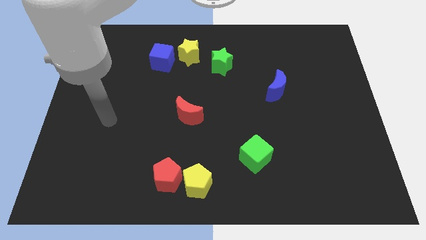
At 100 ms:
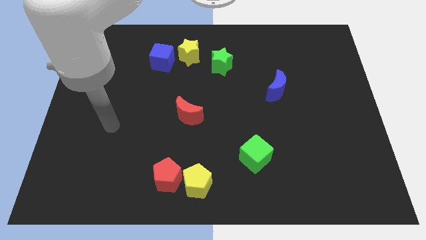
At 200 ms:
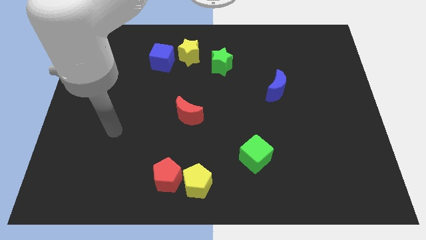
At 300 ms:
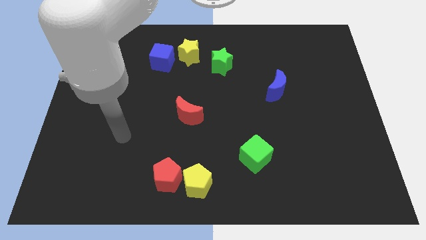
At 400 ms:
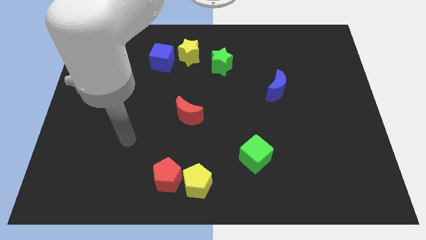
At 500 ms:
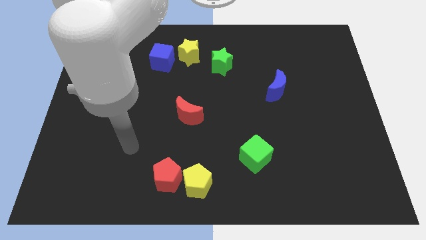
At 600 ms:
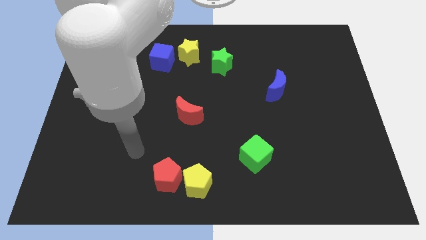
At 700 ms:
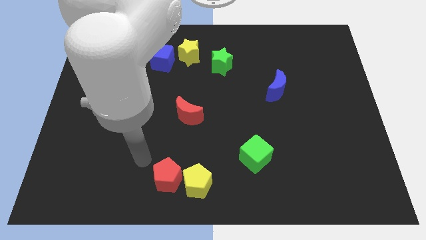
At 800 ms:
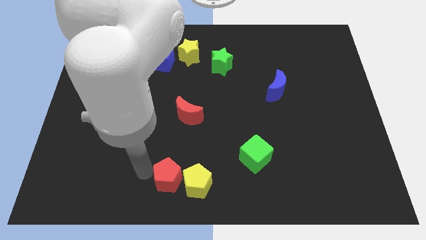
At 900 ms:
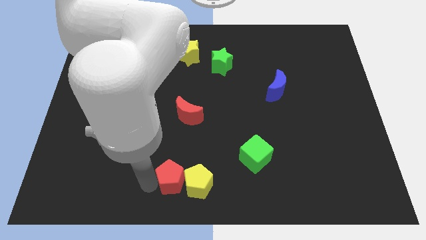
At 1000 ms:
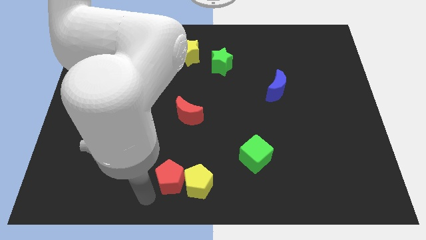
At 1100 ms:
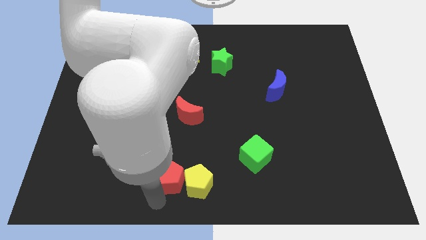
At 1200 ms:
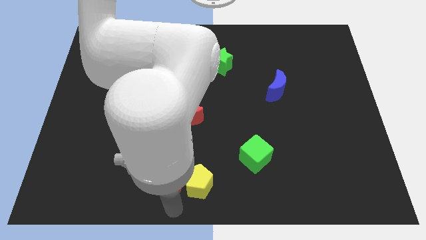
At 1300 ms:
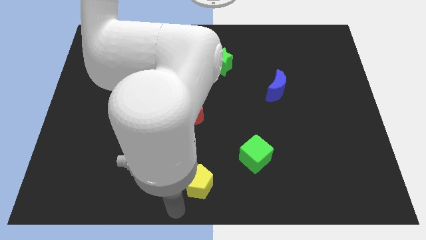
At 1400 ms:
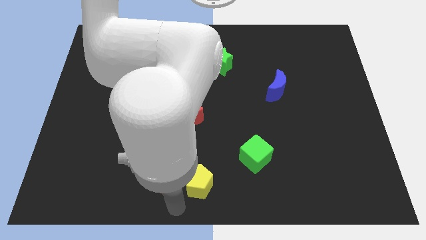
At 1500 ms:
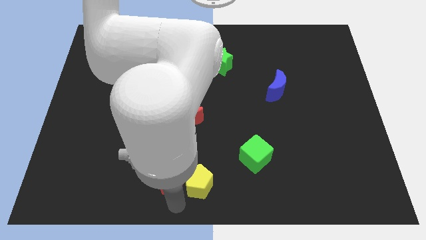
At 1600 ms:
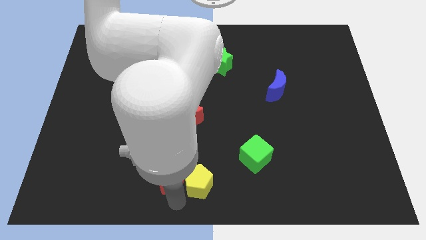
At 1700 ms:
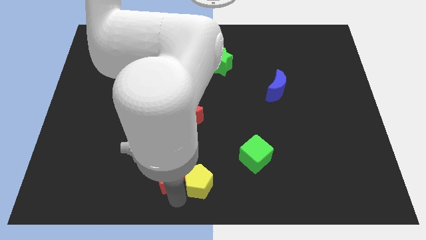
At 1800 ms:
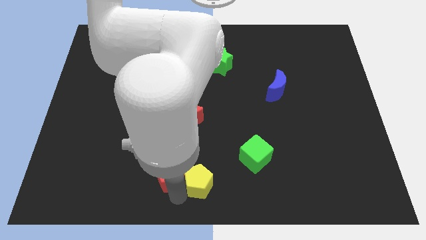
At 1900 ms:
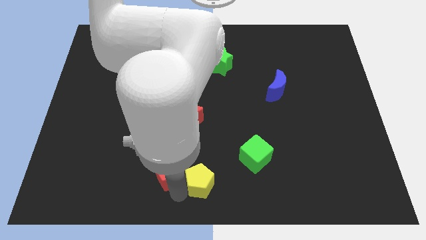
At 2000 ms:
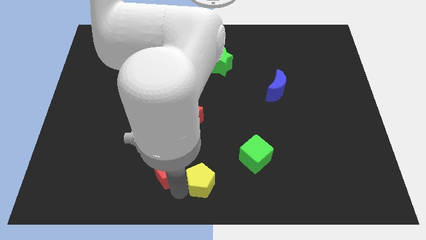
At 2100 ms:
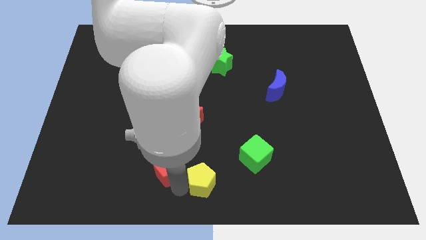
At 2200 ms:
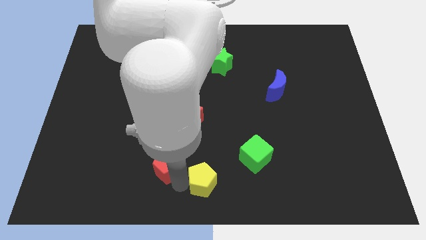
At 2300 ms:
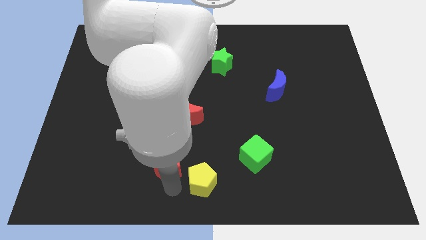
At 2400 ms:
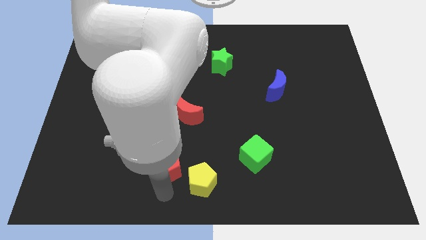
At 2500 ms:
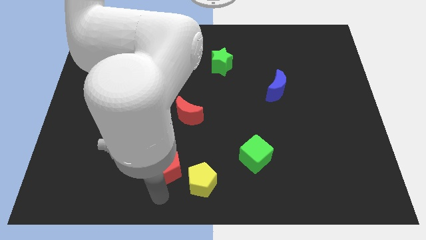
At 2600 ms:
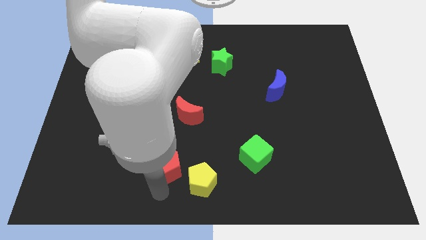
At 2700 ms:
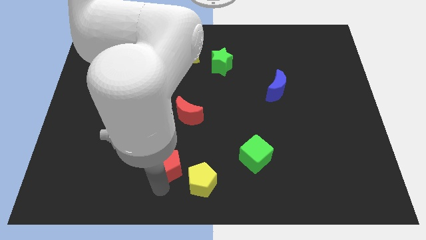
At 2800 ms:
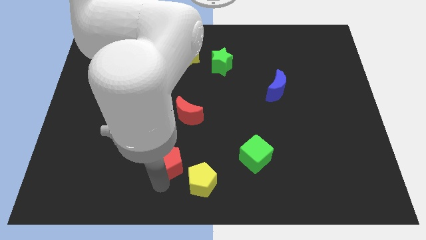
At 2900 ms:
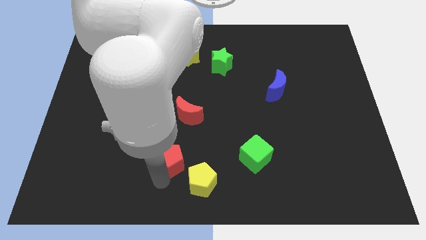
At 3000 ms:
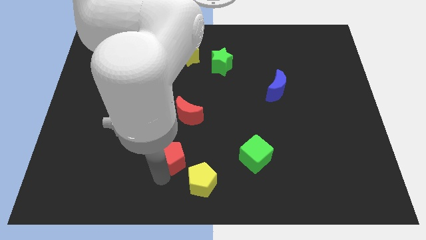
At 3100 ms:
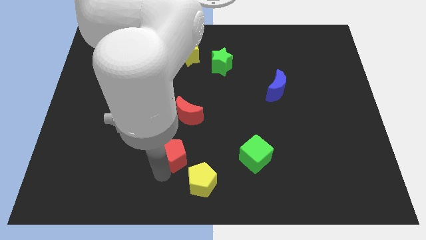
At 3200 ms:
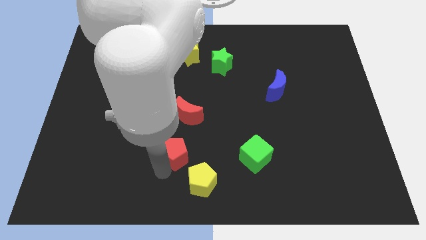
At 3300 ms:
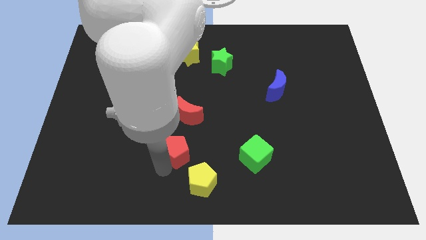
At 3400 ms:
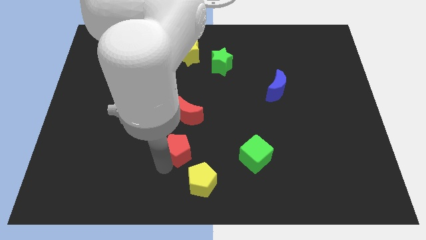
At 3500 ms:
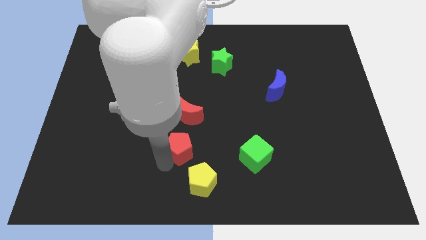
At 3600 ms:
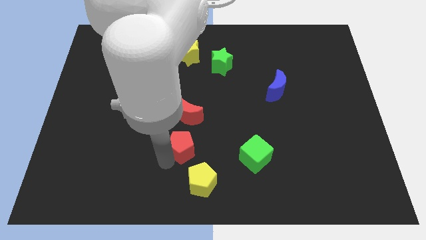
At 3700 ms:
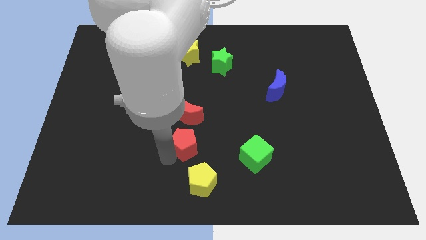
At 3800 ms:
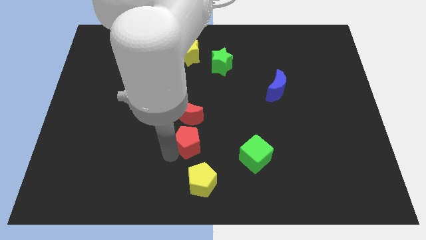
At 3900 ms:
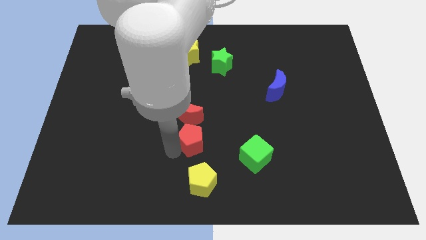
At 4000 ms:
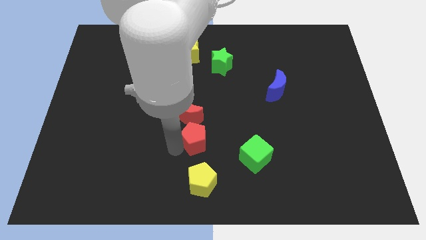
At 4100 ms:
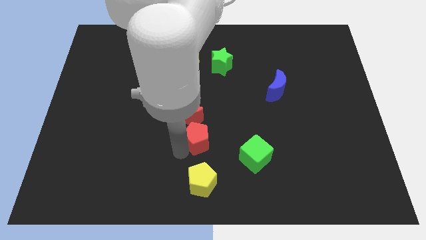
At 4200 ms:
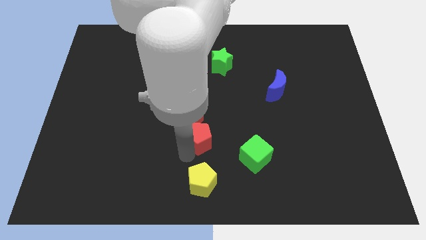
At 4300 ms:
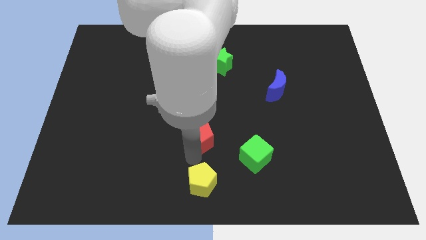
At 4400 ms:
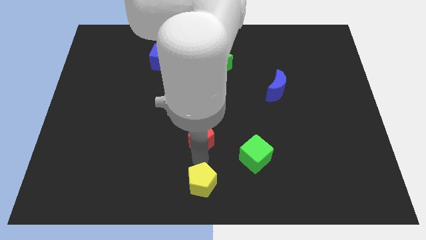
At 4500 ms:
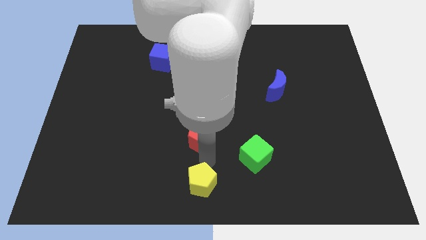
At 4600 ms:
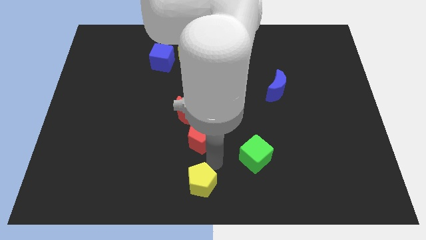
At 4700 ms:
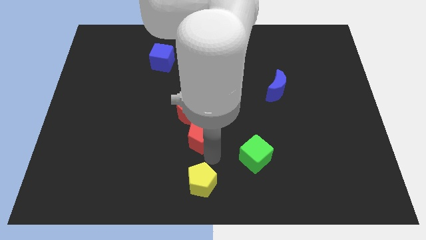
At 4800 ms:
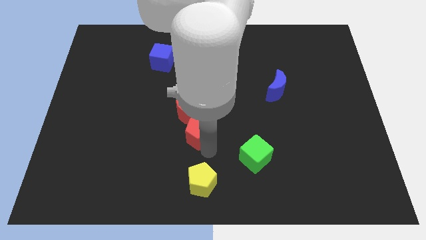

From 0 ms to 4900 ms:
push the red pentagon next to the red moon

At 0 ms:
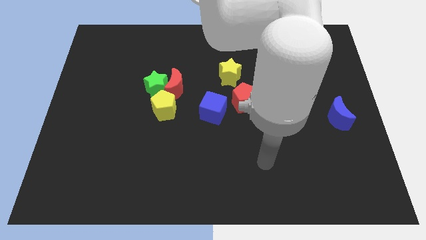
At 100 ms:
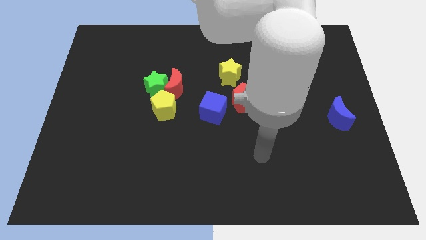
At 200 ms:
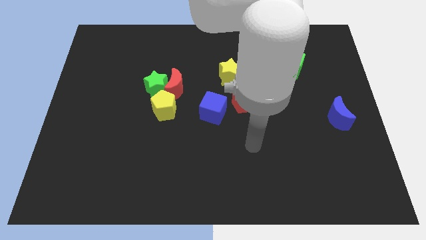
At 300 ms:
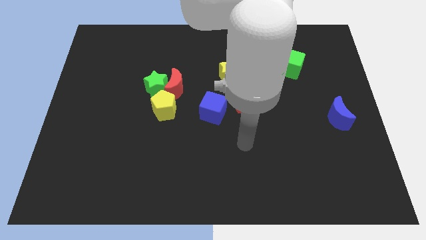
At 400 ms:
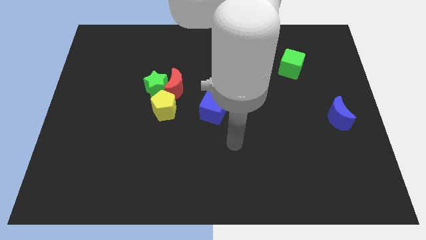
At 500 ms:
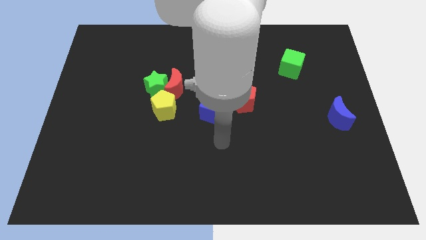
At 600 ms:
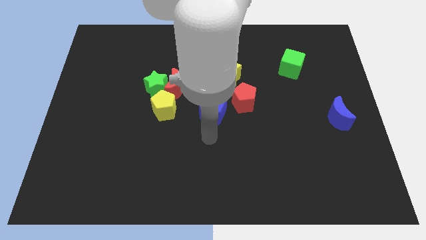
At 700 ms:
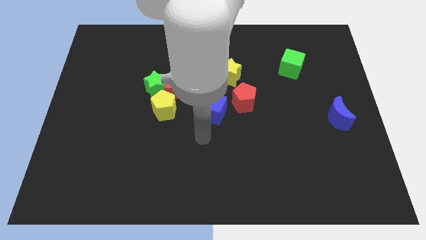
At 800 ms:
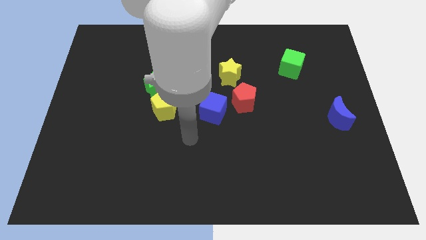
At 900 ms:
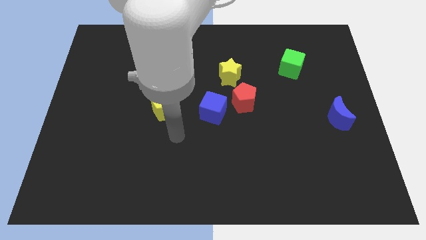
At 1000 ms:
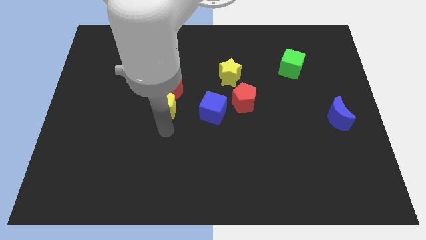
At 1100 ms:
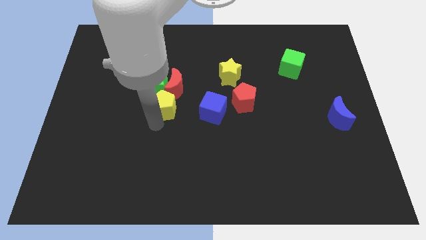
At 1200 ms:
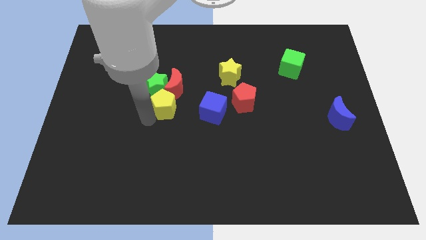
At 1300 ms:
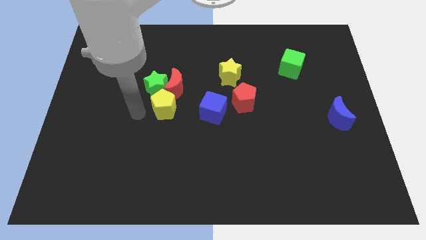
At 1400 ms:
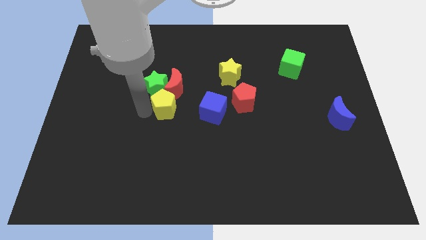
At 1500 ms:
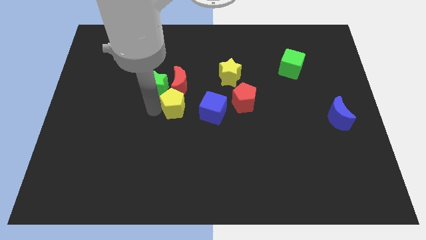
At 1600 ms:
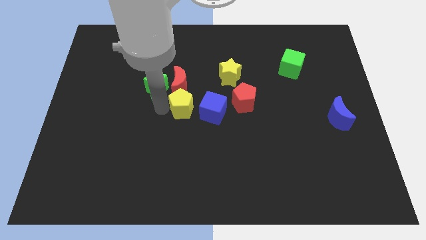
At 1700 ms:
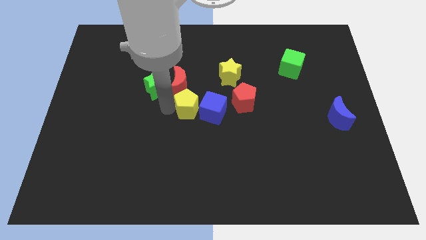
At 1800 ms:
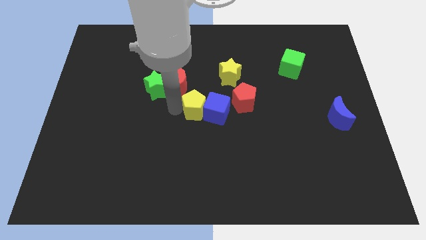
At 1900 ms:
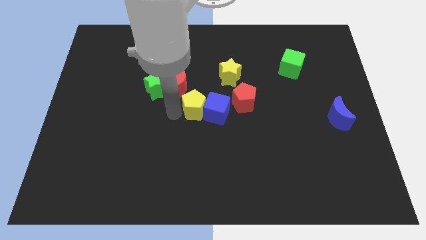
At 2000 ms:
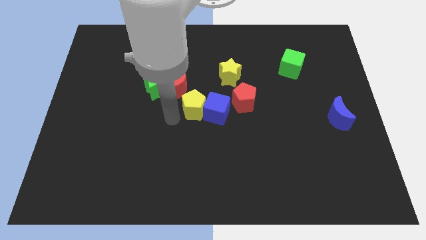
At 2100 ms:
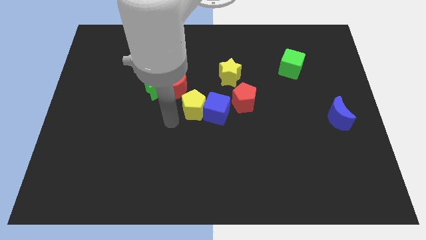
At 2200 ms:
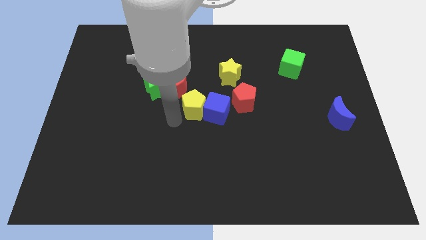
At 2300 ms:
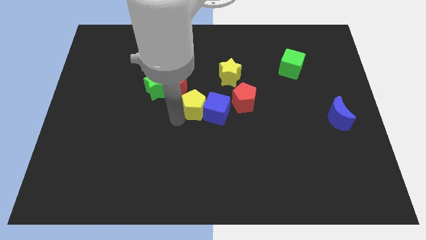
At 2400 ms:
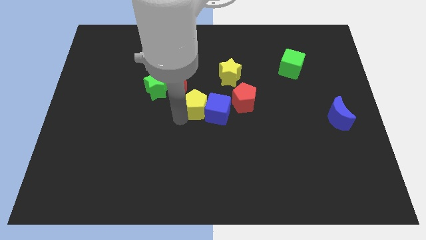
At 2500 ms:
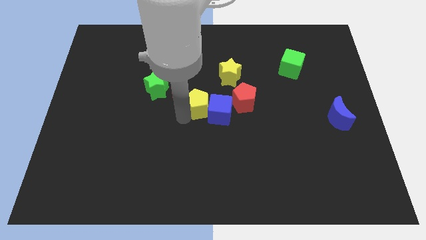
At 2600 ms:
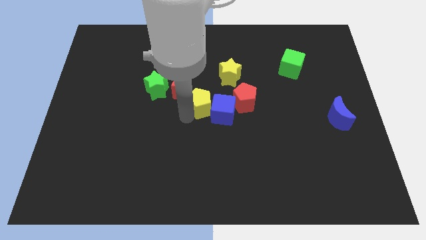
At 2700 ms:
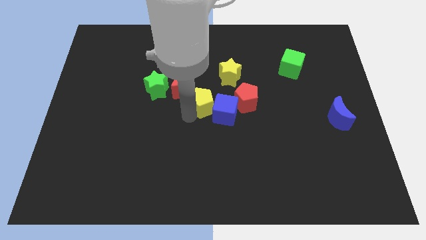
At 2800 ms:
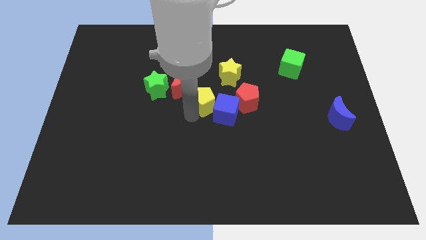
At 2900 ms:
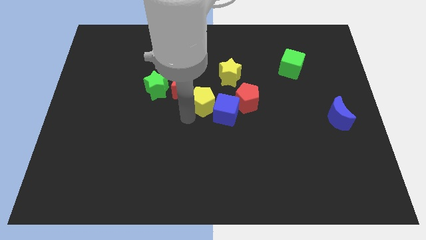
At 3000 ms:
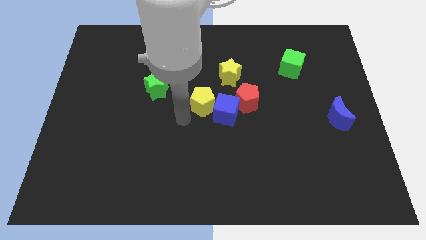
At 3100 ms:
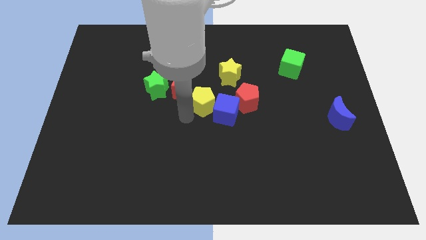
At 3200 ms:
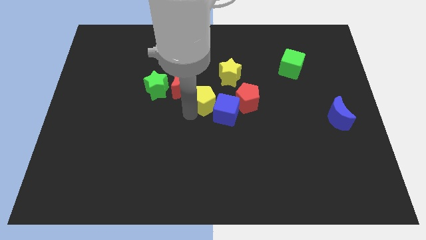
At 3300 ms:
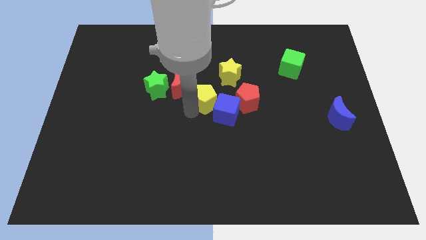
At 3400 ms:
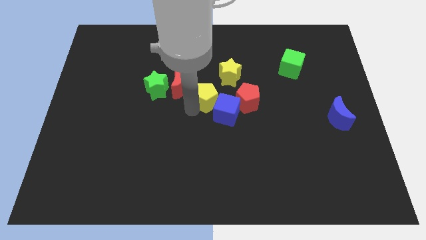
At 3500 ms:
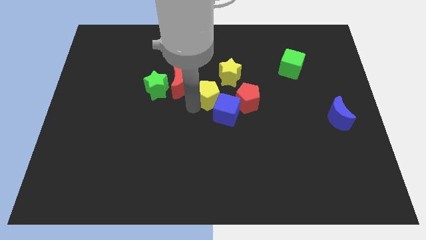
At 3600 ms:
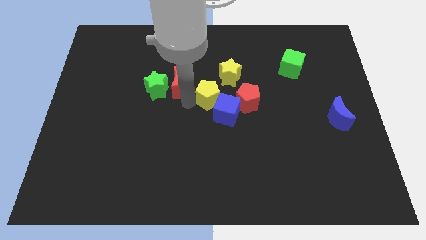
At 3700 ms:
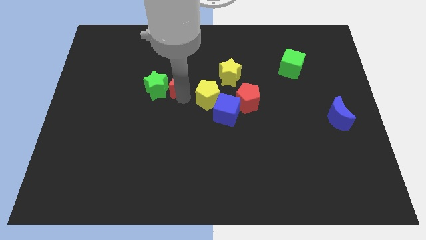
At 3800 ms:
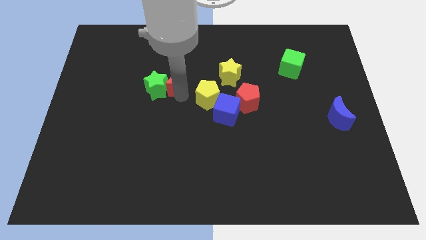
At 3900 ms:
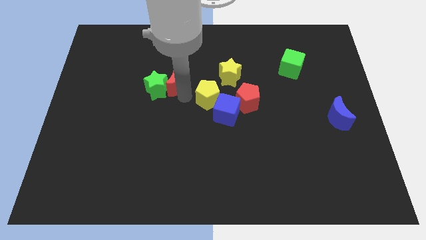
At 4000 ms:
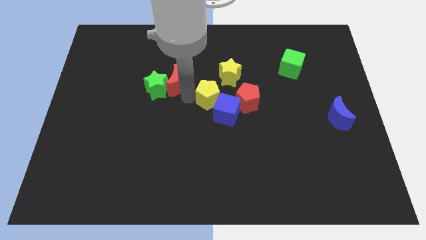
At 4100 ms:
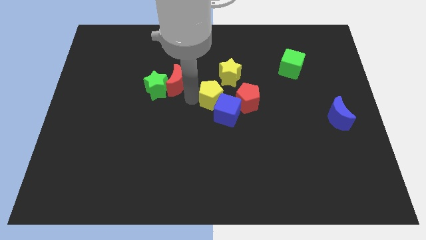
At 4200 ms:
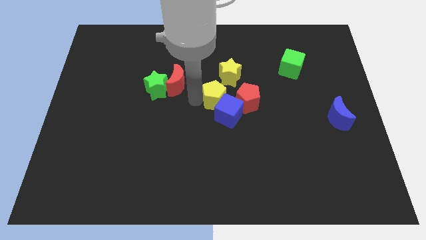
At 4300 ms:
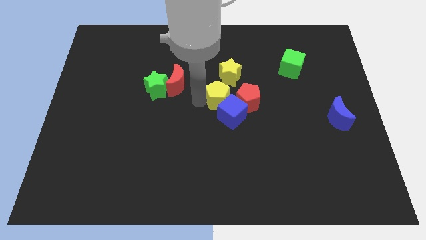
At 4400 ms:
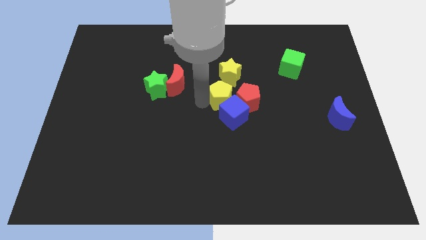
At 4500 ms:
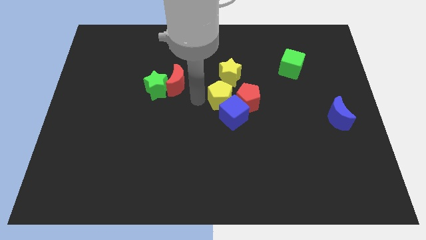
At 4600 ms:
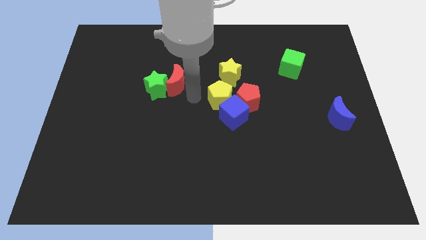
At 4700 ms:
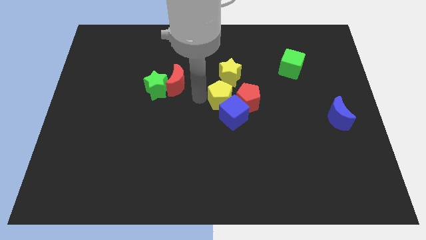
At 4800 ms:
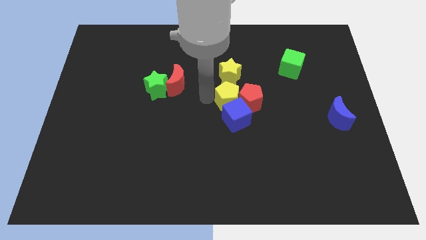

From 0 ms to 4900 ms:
move the yellow pentagon towards the red pentagon
